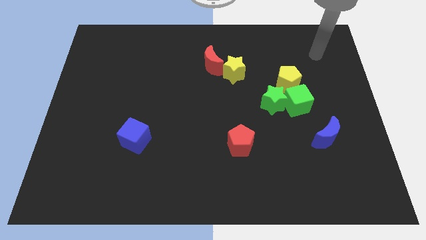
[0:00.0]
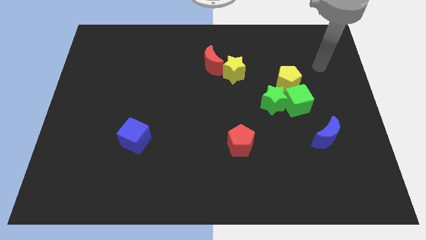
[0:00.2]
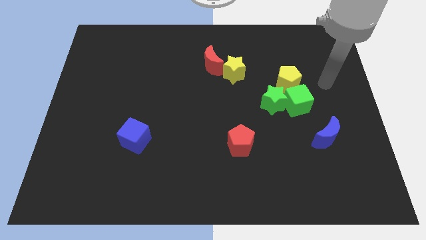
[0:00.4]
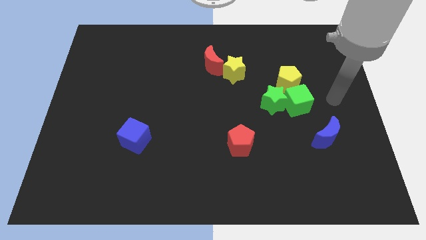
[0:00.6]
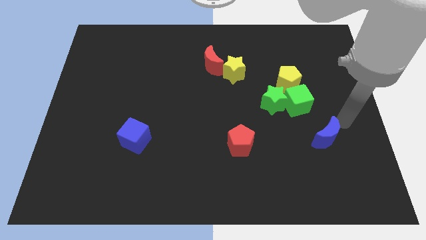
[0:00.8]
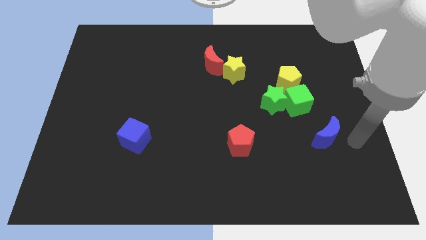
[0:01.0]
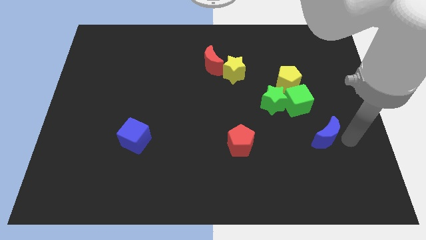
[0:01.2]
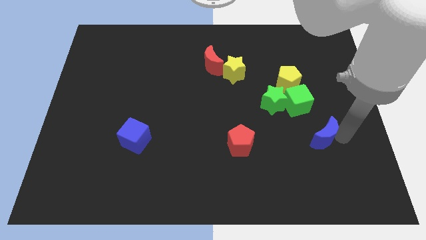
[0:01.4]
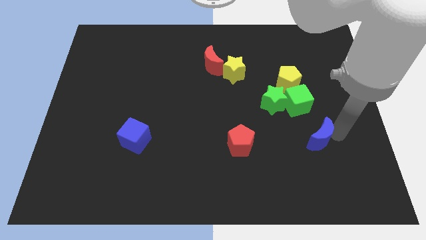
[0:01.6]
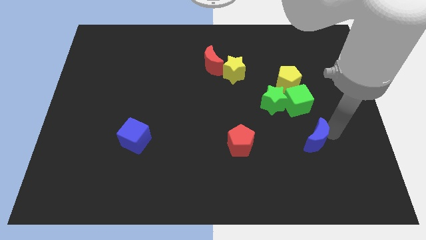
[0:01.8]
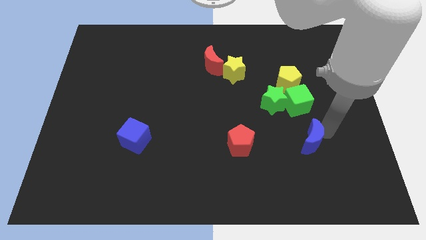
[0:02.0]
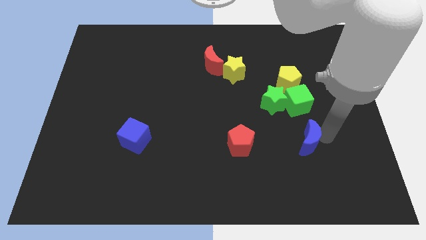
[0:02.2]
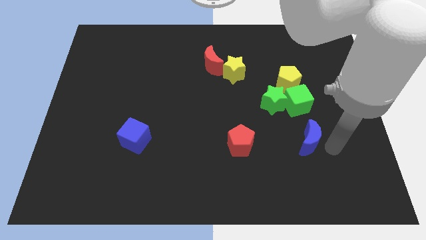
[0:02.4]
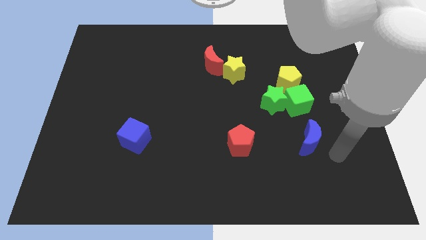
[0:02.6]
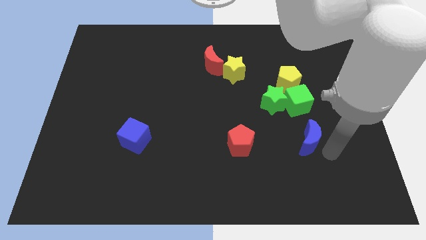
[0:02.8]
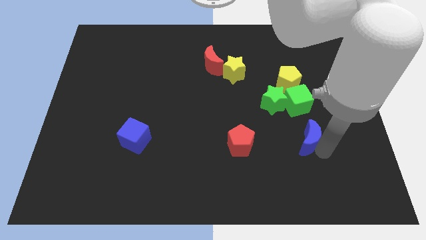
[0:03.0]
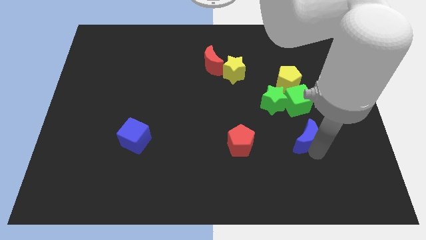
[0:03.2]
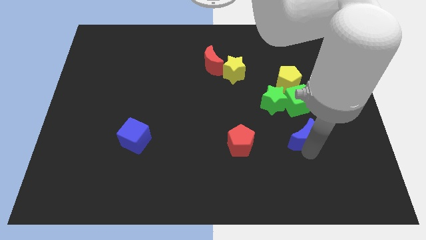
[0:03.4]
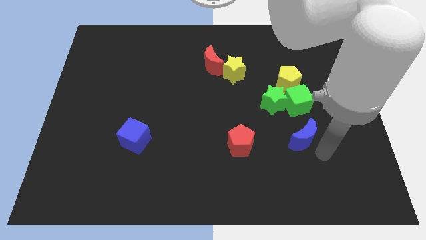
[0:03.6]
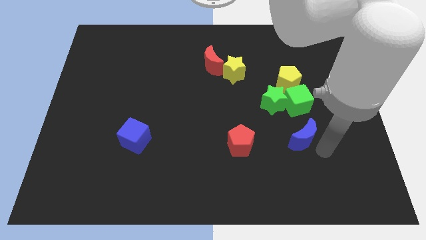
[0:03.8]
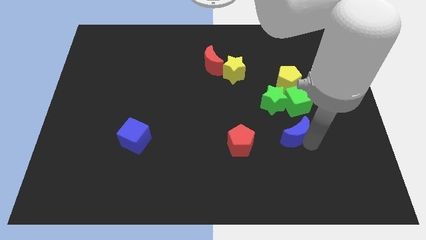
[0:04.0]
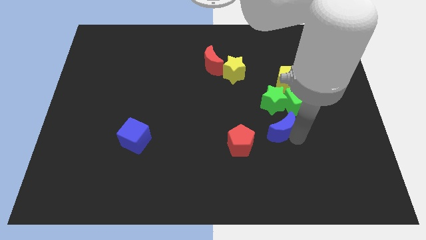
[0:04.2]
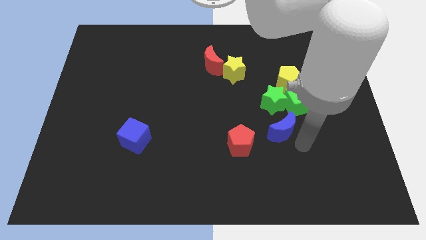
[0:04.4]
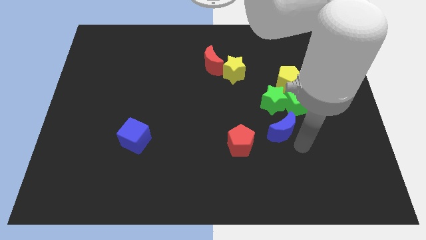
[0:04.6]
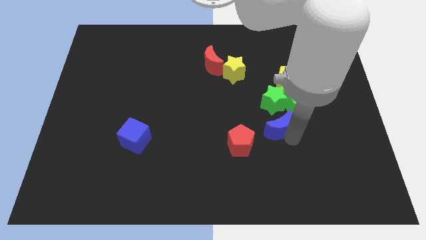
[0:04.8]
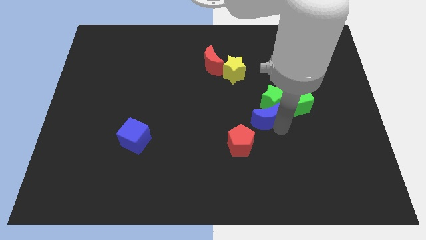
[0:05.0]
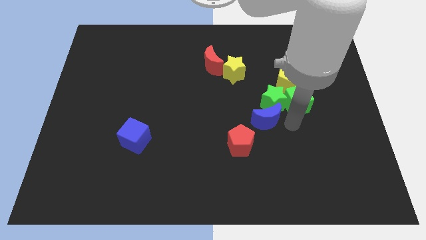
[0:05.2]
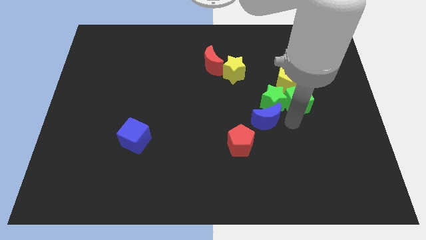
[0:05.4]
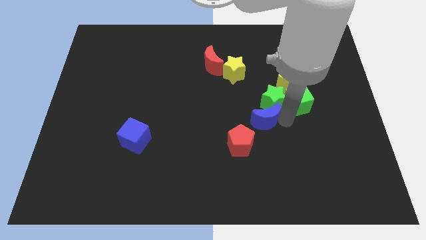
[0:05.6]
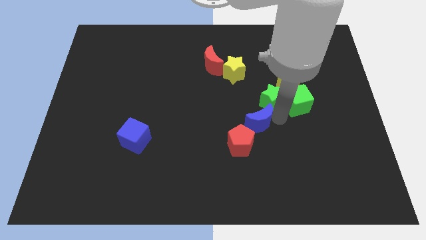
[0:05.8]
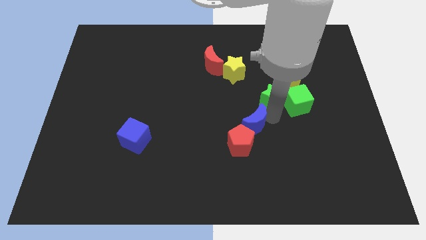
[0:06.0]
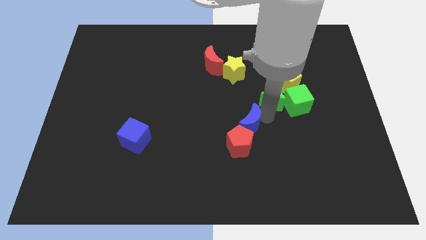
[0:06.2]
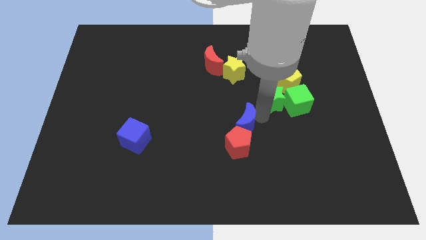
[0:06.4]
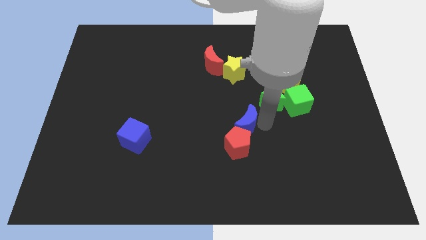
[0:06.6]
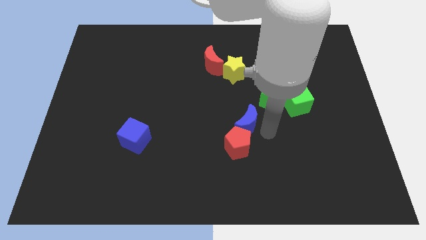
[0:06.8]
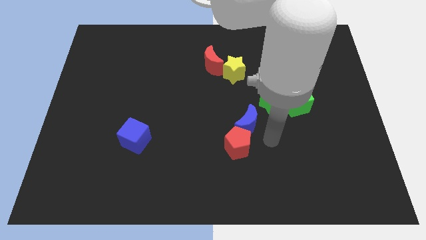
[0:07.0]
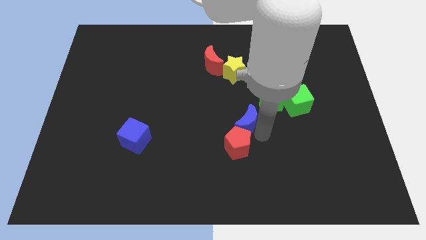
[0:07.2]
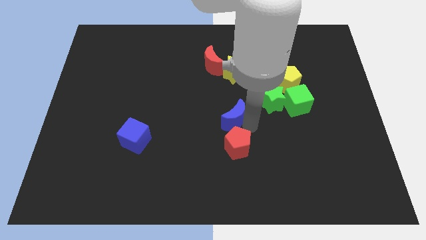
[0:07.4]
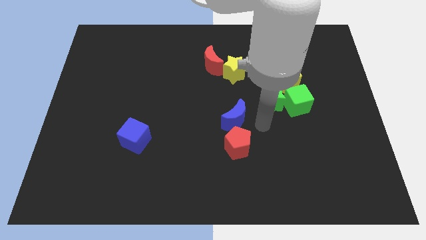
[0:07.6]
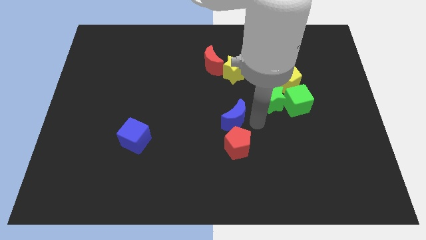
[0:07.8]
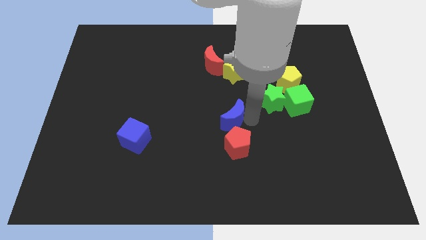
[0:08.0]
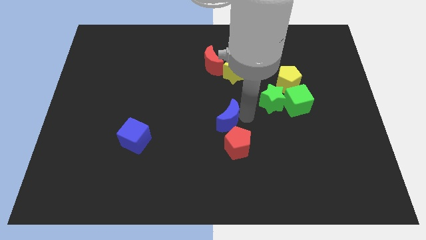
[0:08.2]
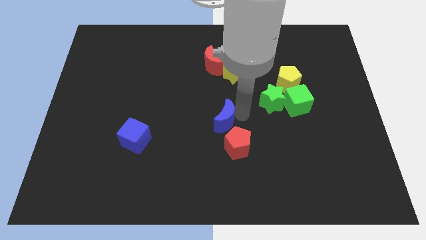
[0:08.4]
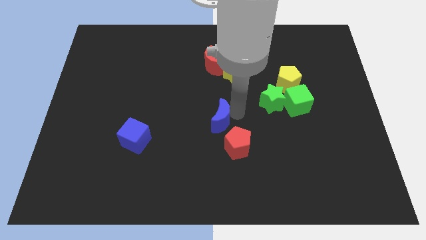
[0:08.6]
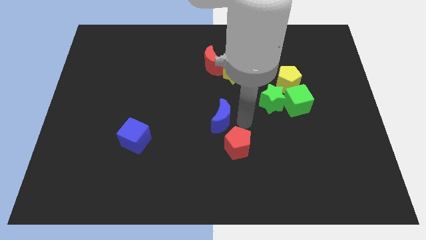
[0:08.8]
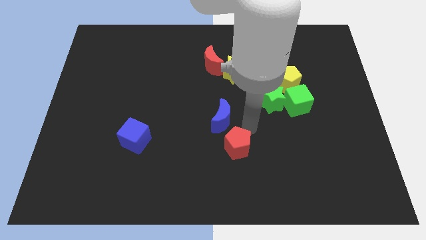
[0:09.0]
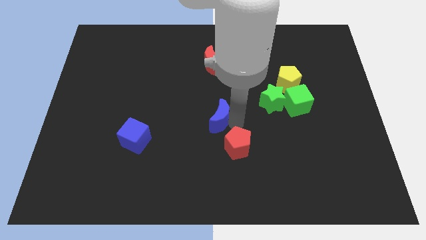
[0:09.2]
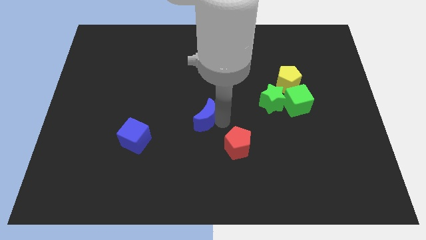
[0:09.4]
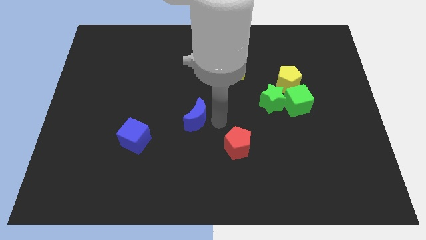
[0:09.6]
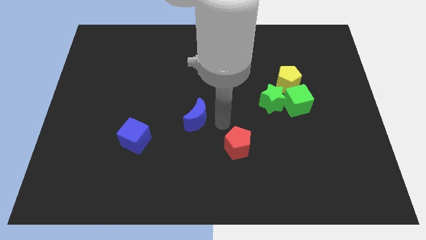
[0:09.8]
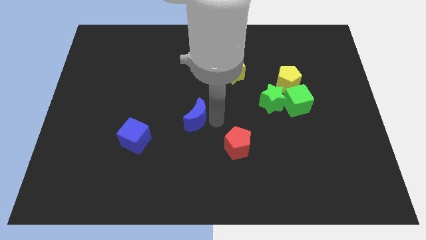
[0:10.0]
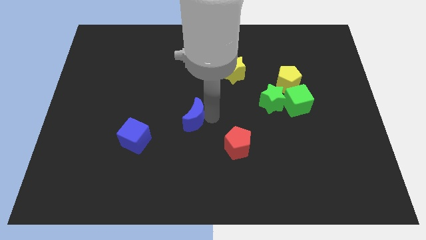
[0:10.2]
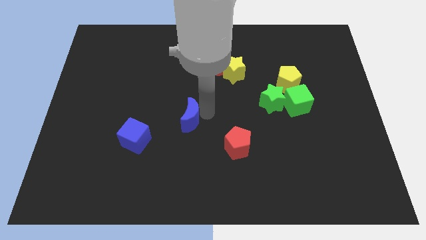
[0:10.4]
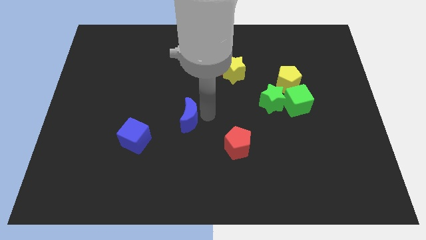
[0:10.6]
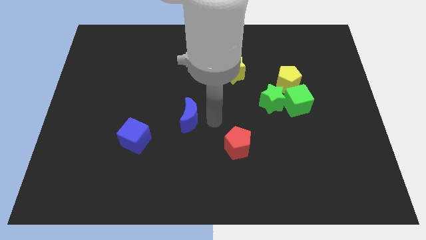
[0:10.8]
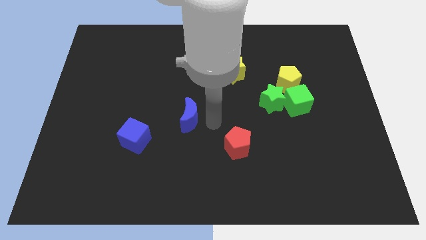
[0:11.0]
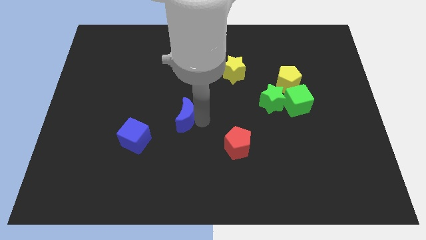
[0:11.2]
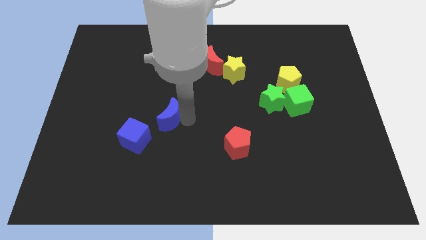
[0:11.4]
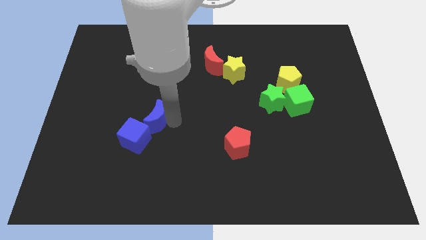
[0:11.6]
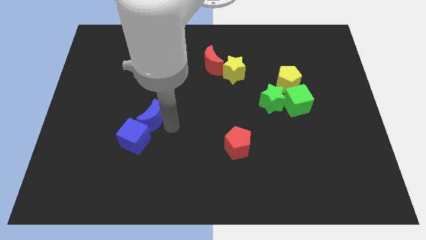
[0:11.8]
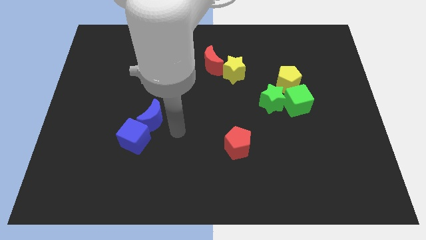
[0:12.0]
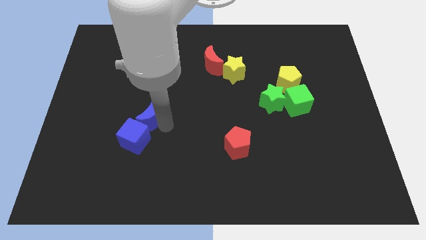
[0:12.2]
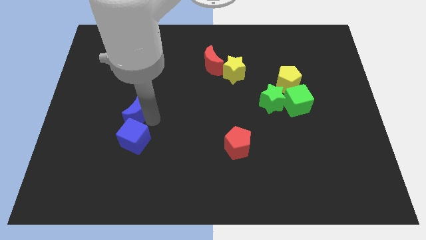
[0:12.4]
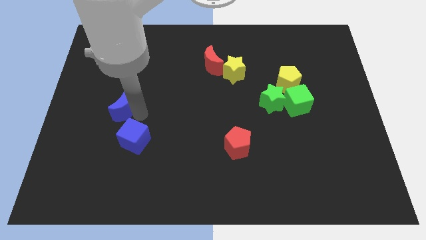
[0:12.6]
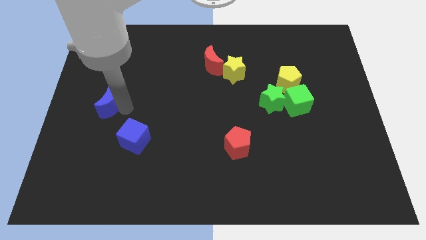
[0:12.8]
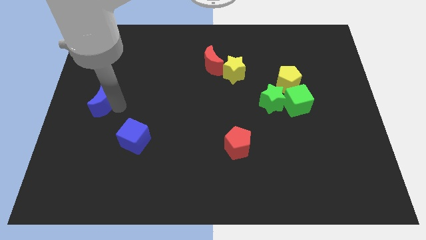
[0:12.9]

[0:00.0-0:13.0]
move the blue moon to the center left
